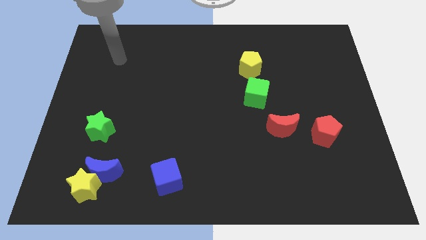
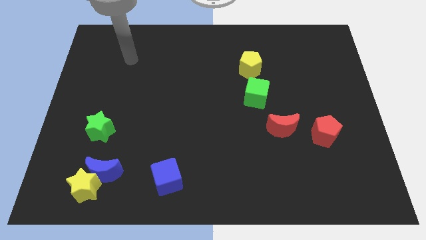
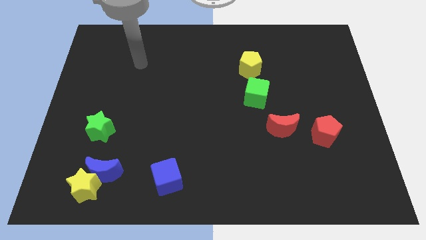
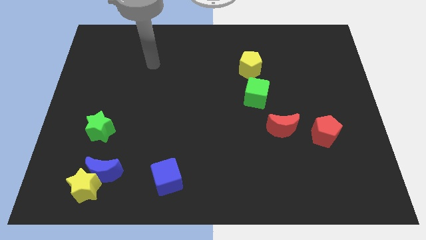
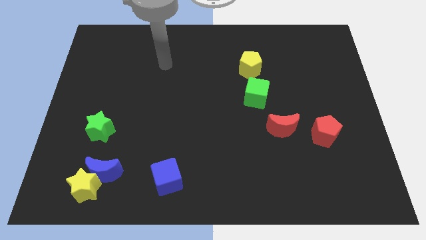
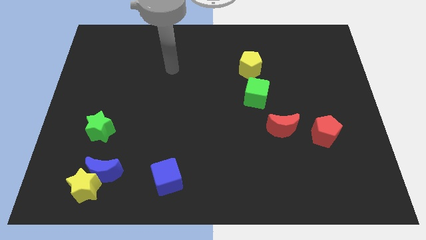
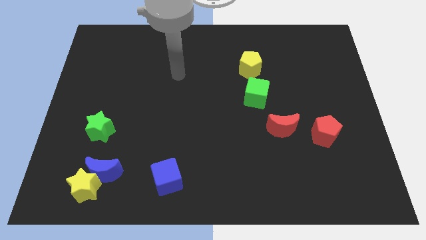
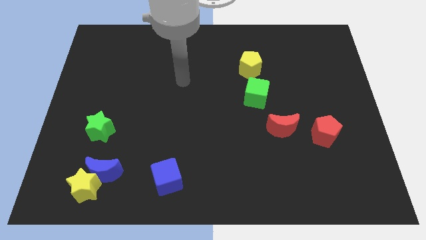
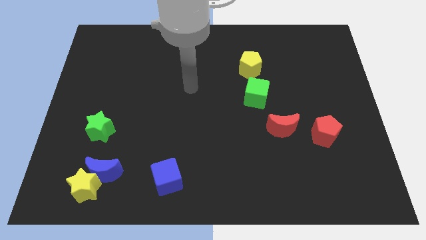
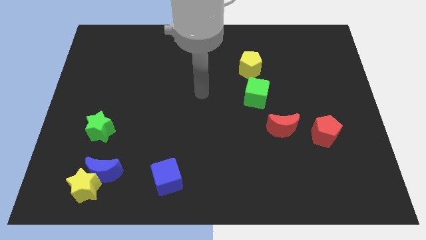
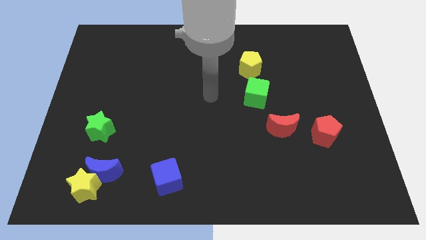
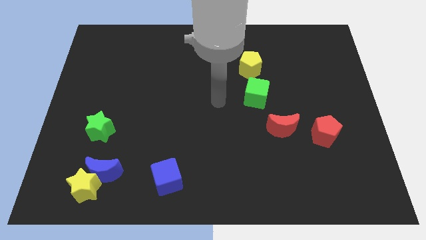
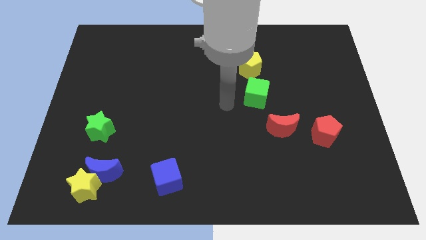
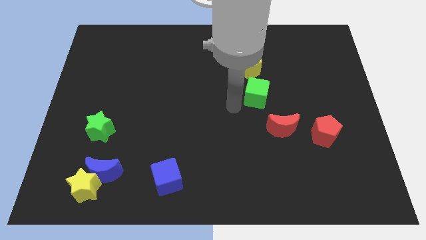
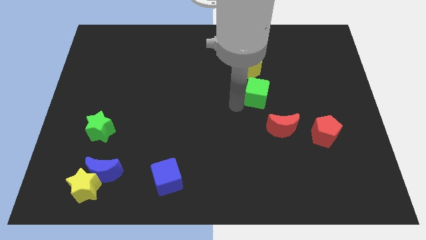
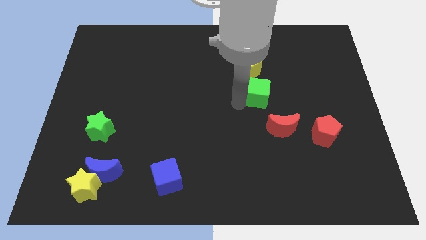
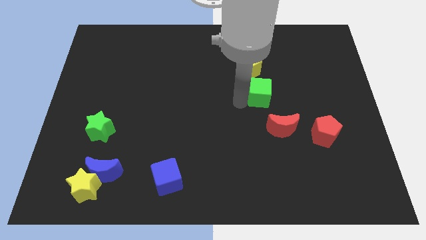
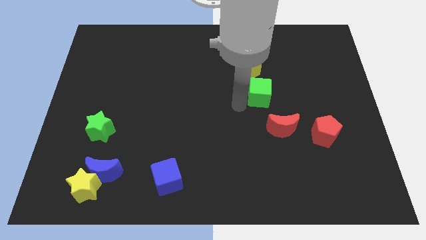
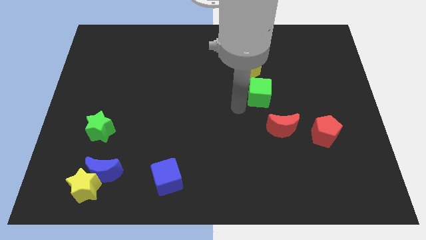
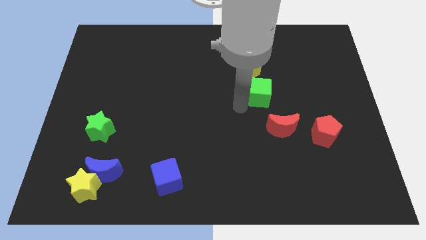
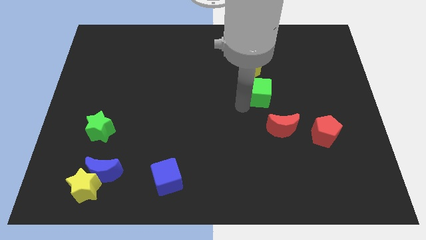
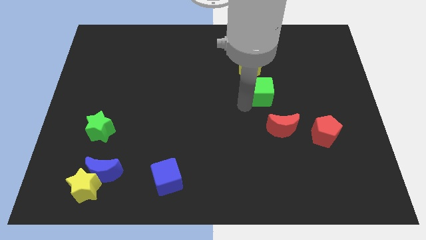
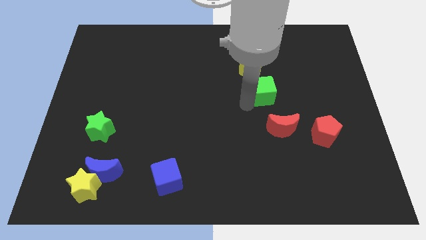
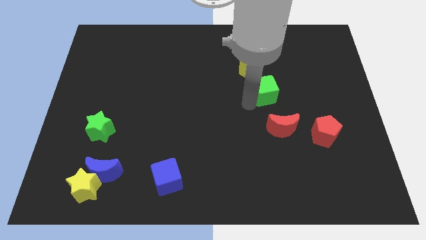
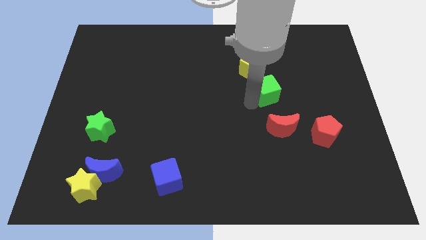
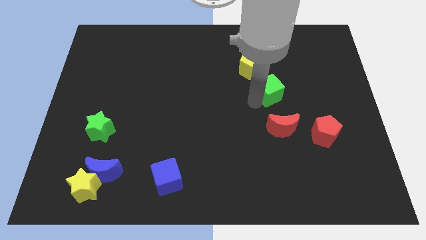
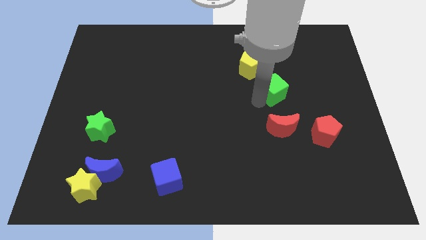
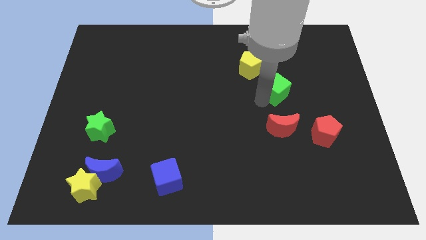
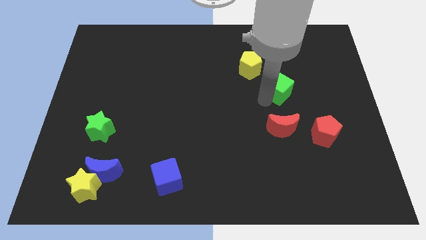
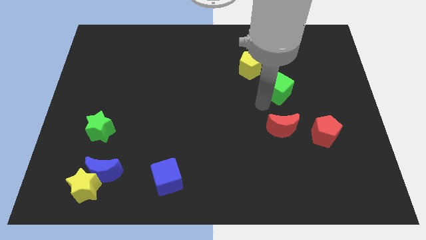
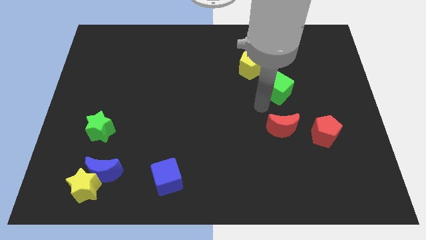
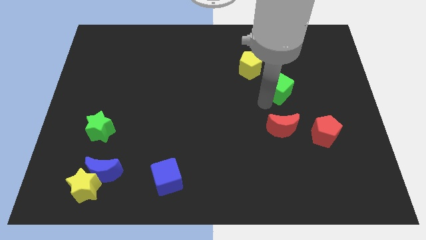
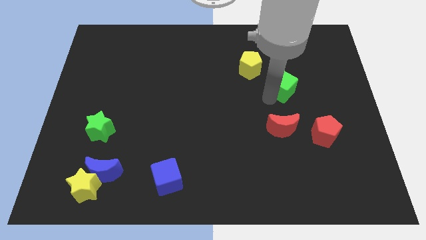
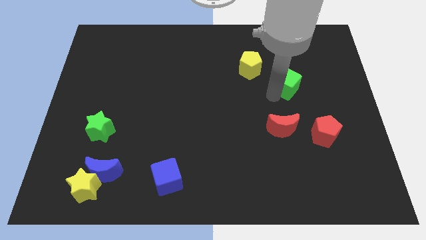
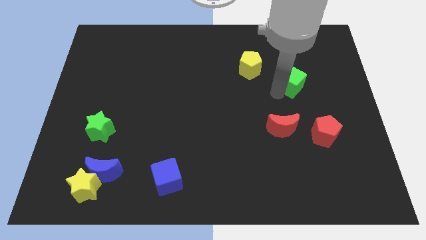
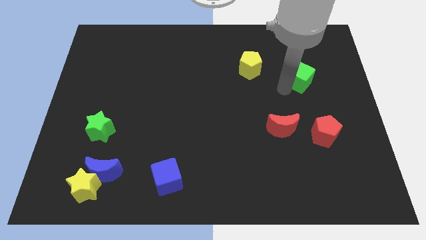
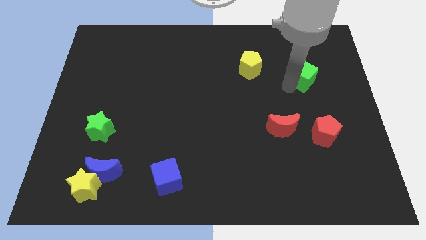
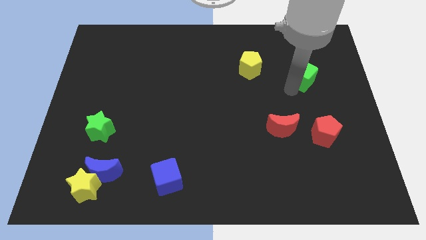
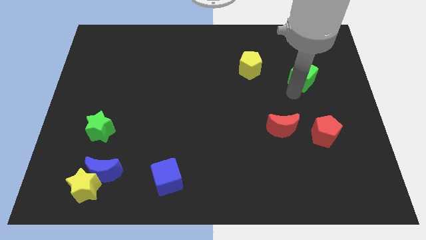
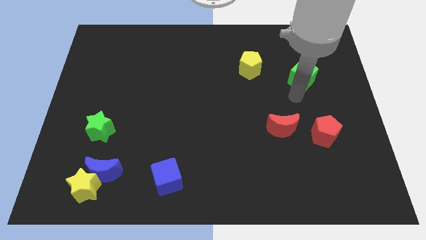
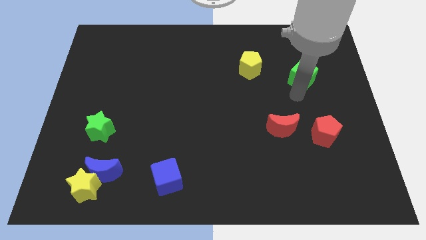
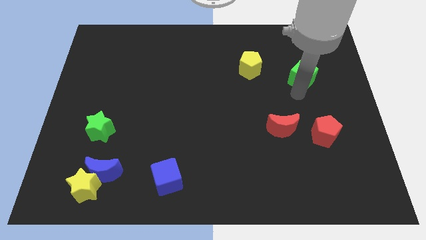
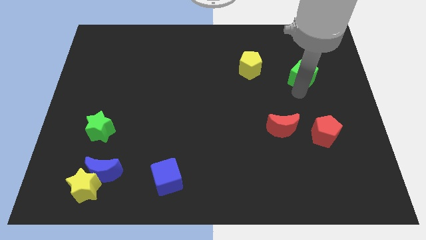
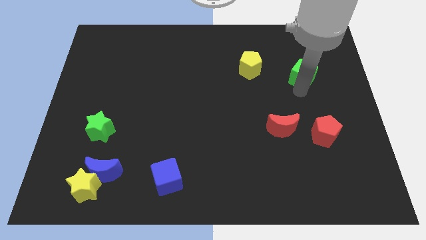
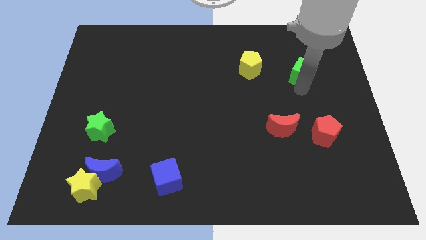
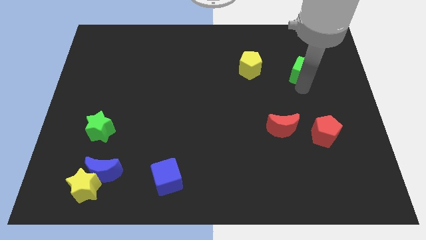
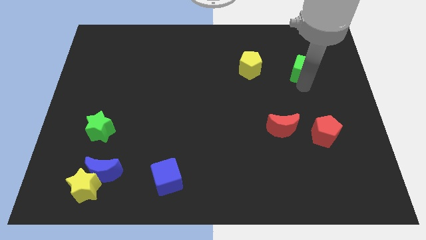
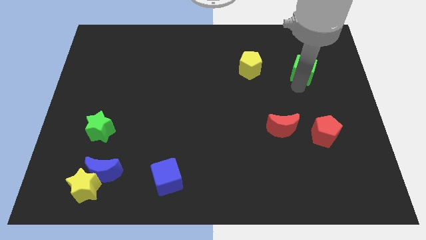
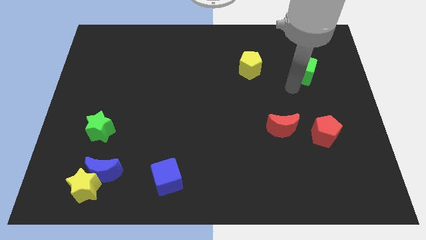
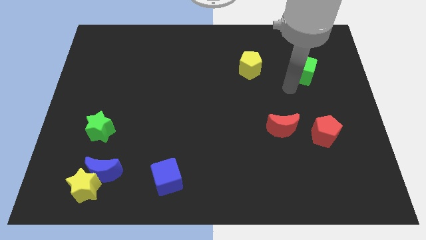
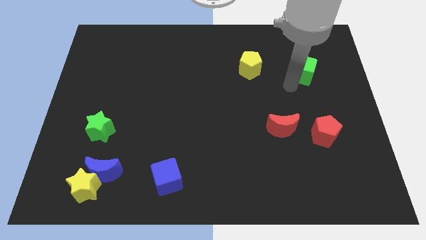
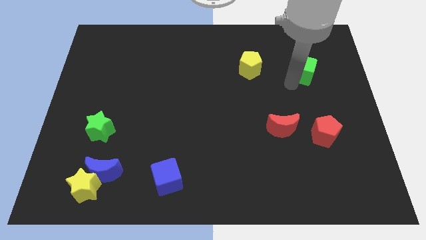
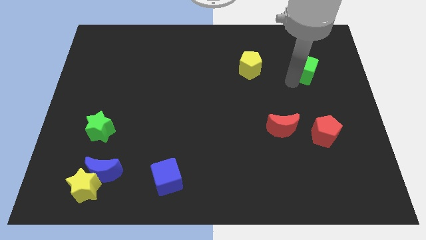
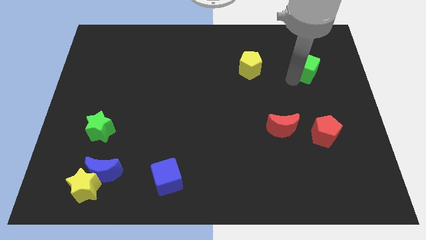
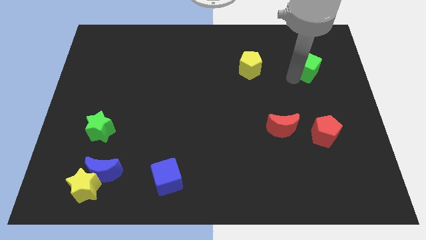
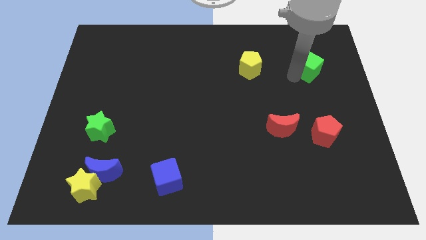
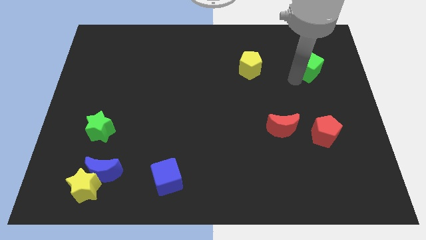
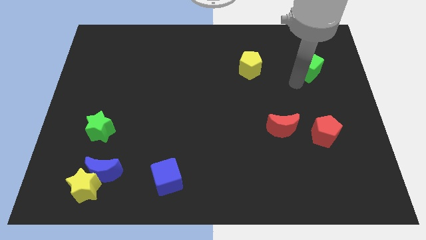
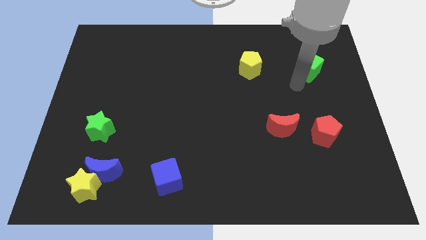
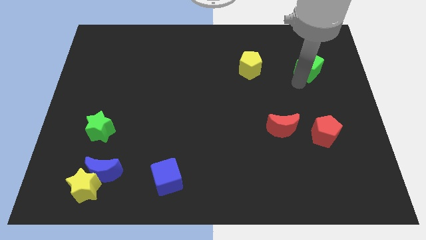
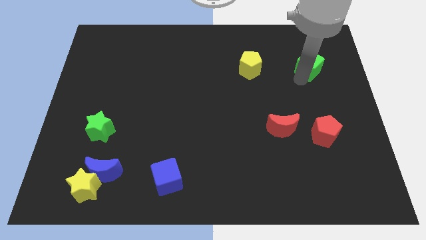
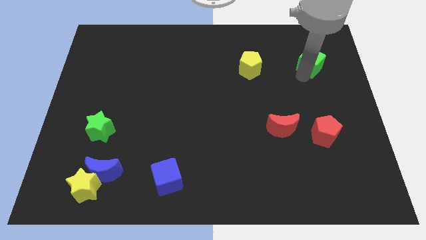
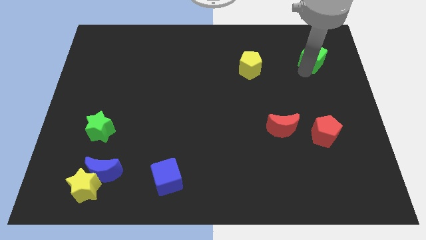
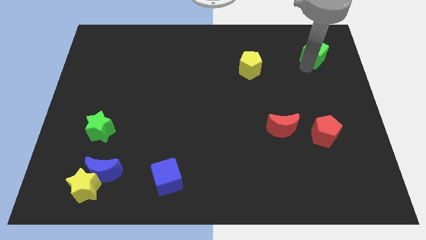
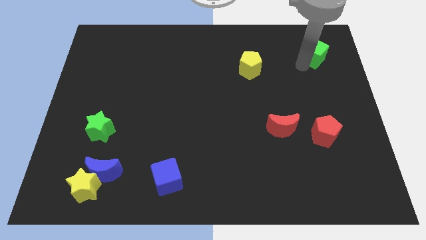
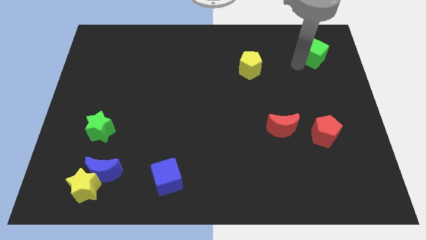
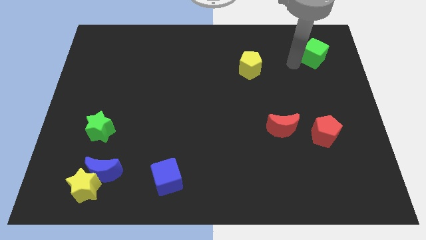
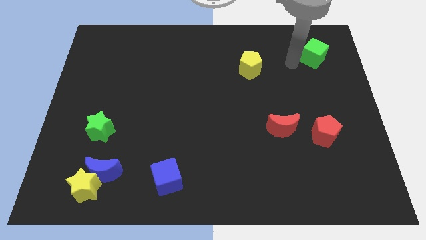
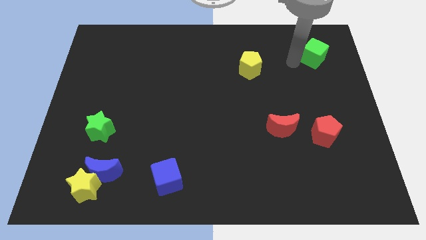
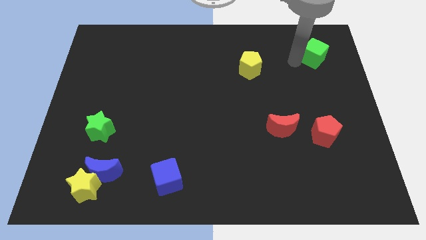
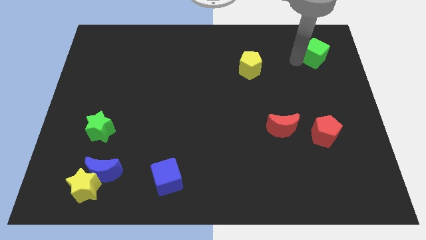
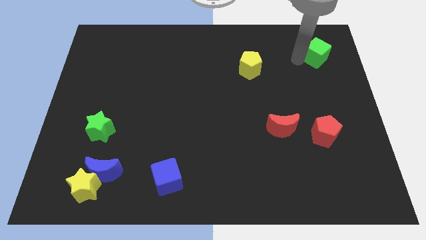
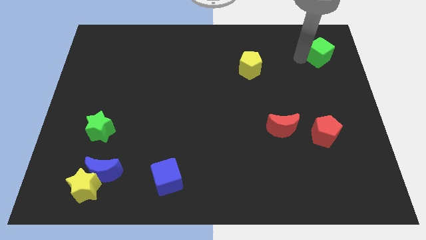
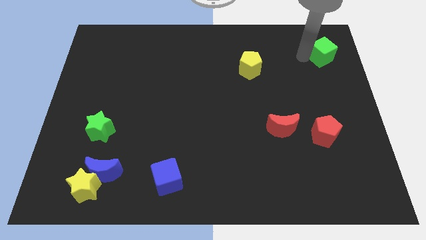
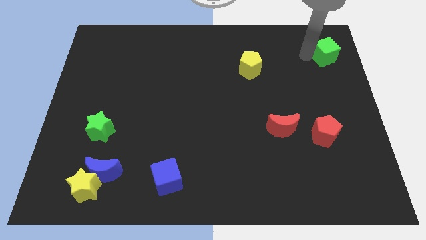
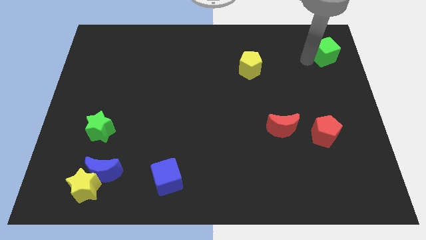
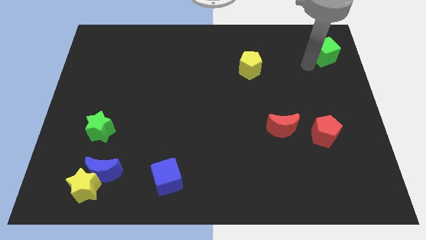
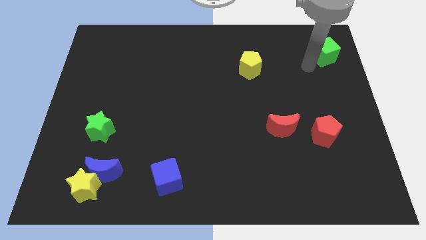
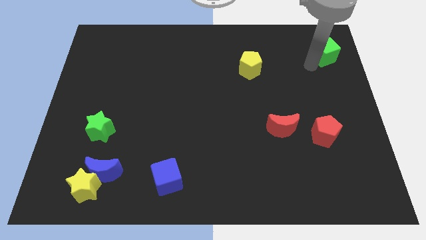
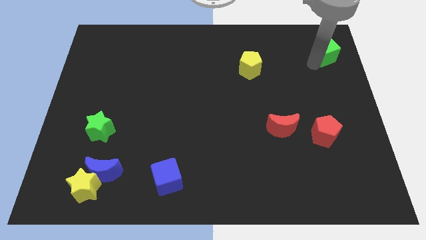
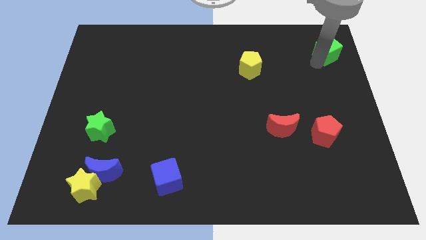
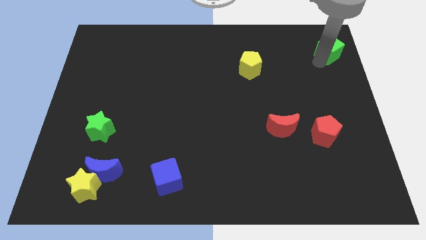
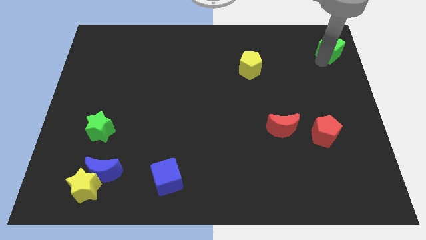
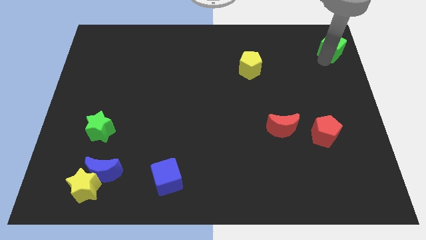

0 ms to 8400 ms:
put the green cube to the top right corner
